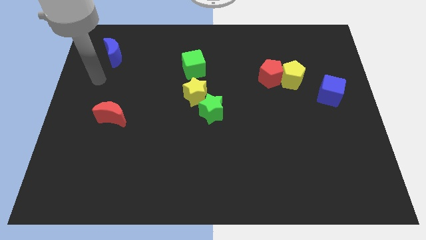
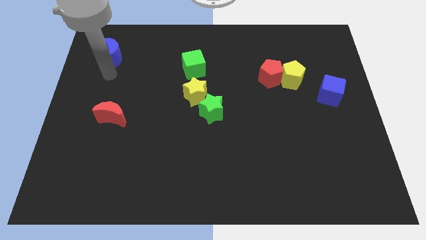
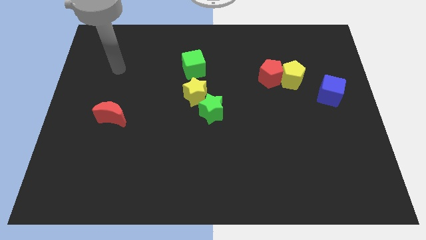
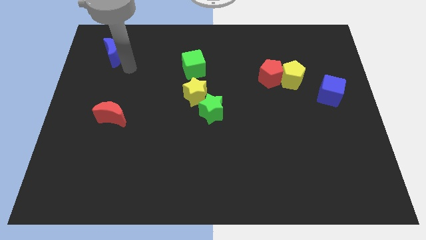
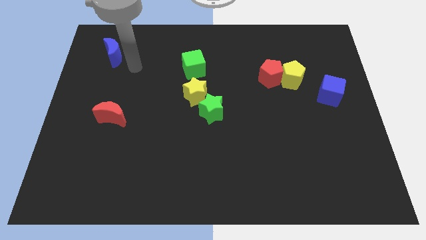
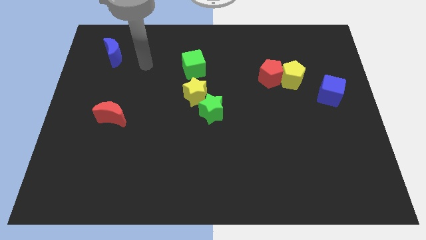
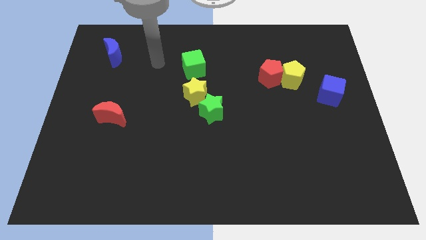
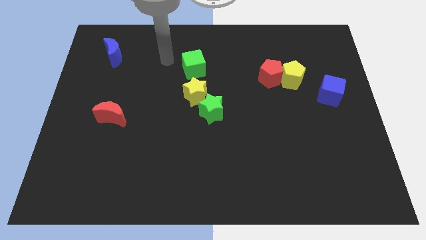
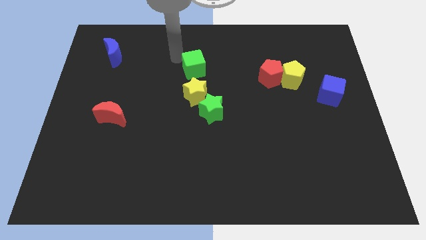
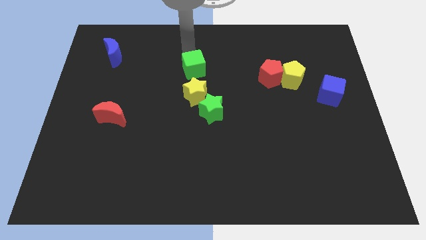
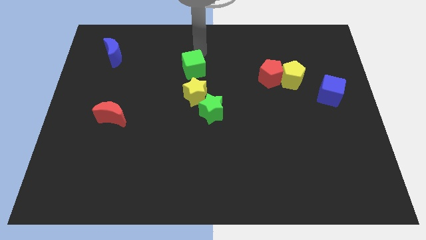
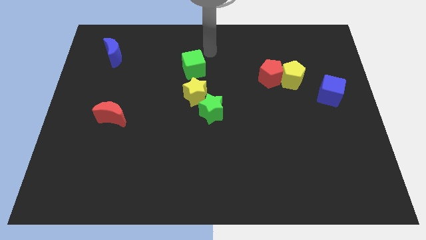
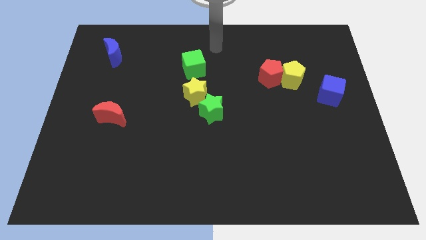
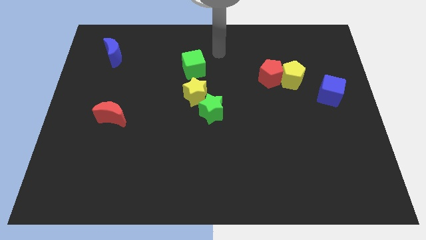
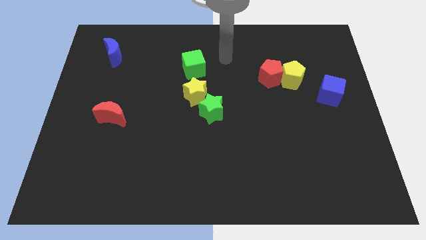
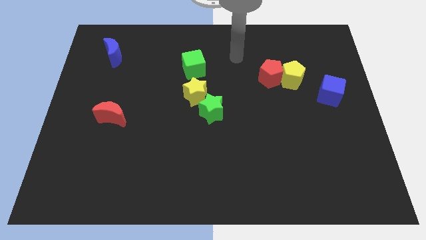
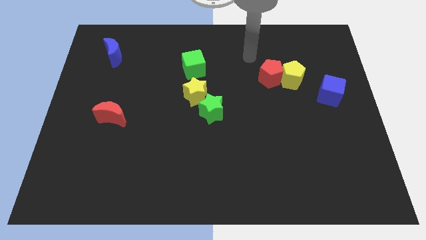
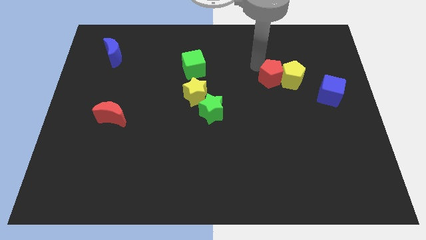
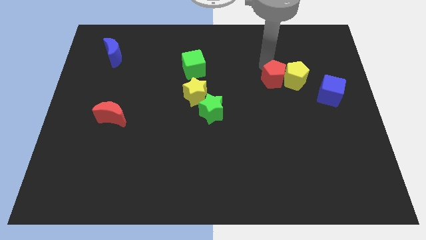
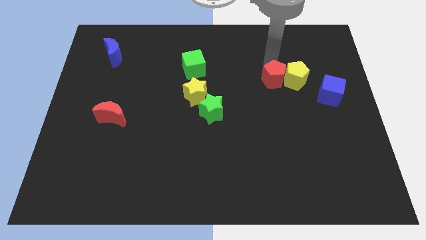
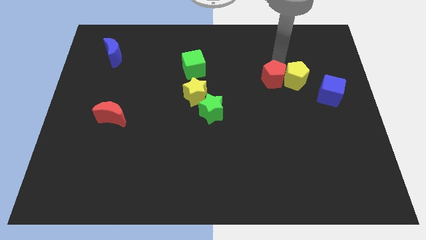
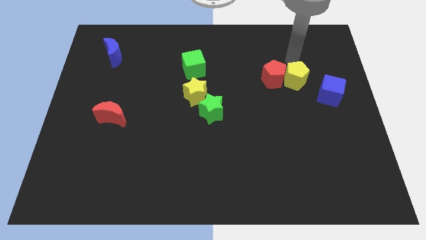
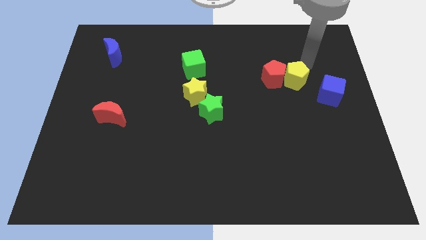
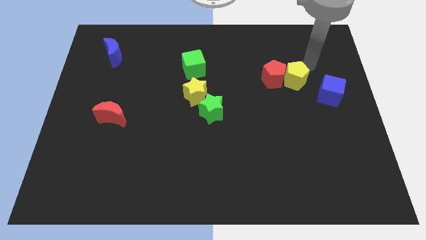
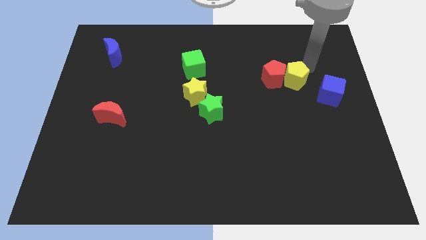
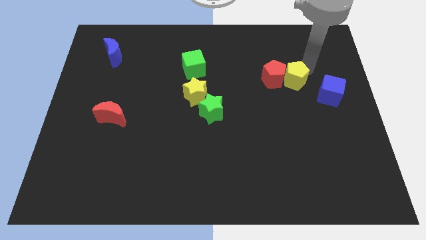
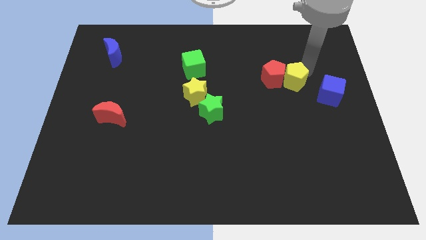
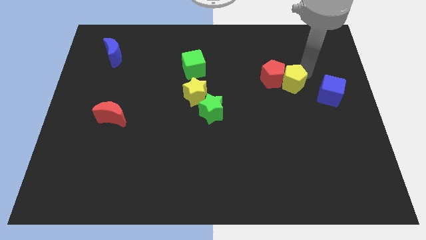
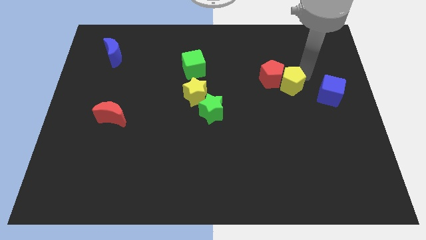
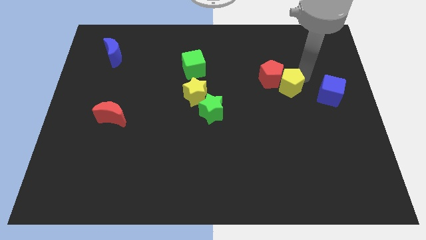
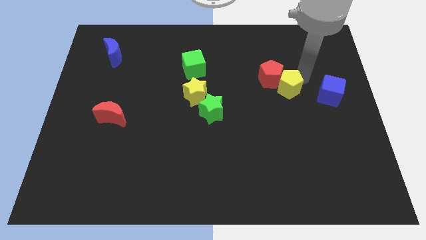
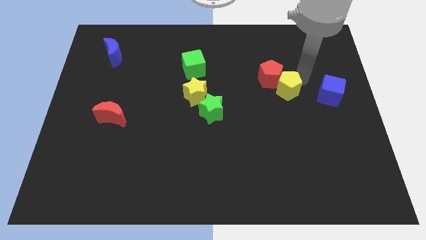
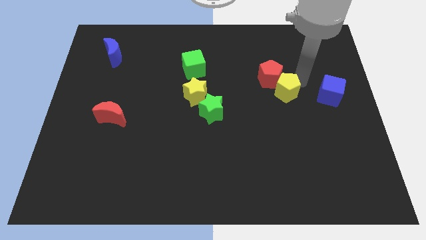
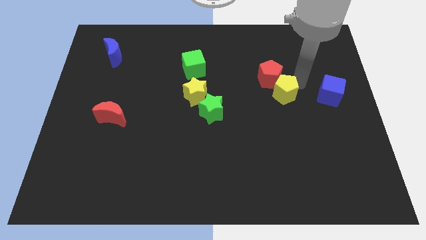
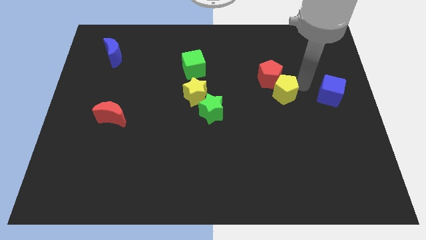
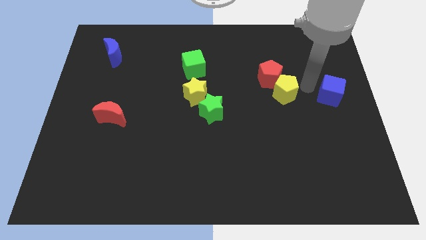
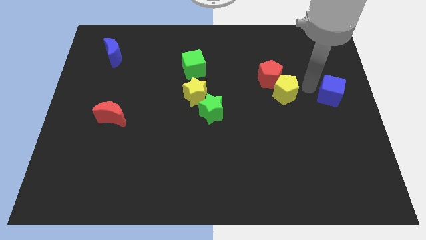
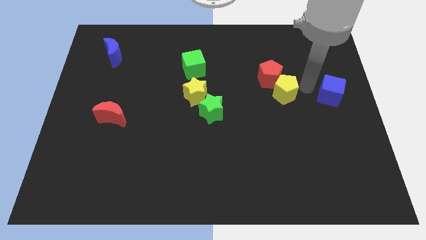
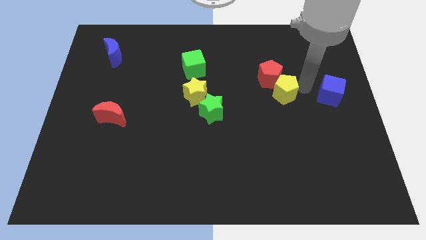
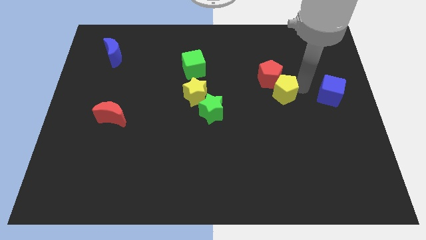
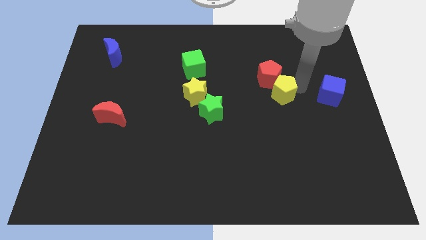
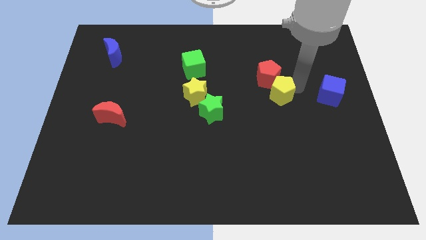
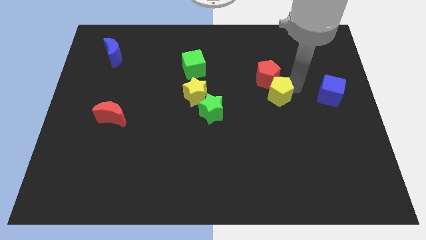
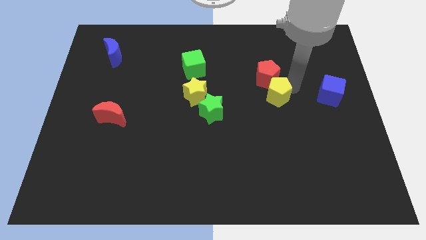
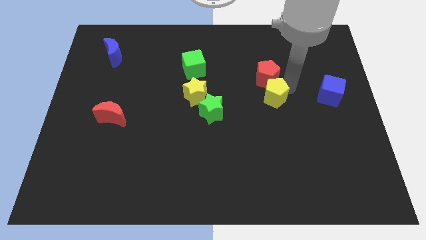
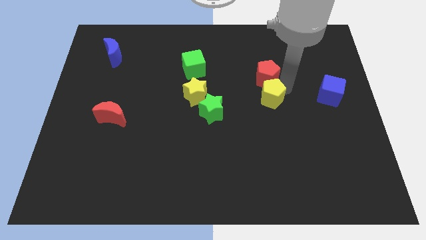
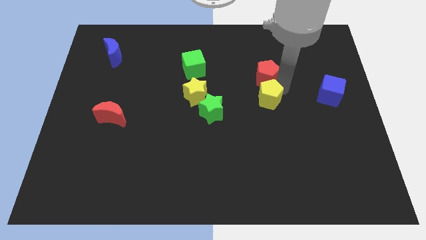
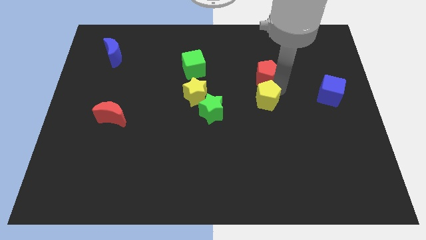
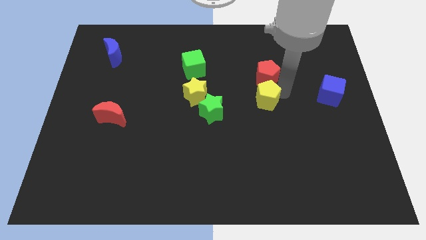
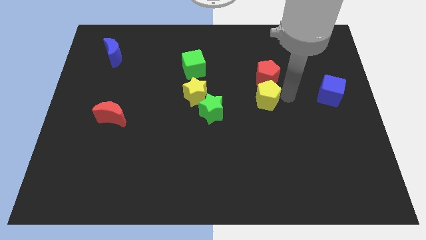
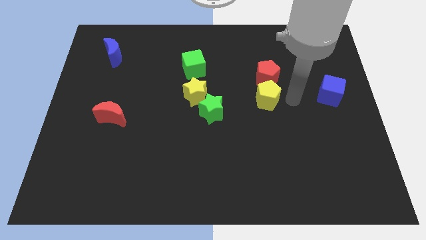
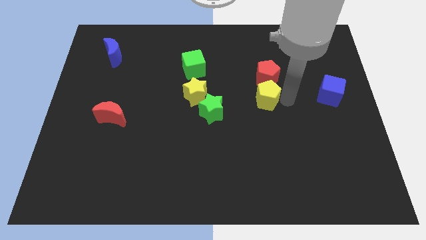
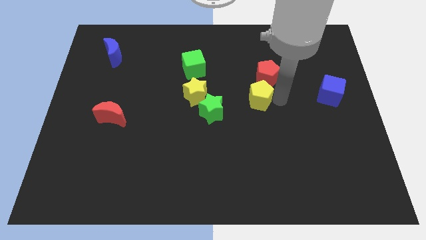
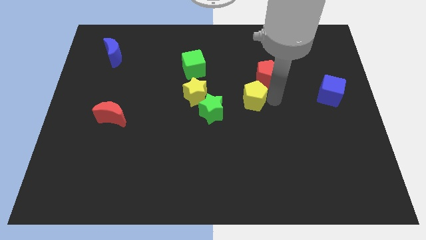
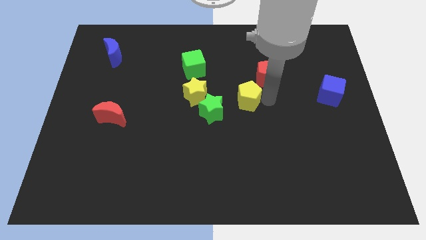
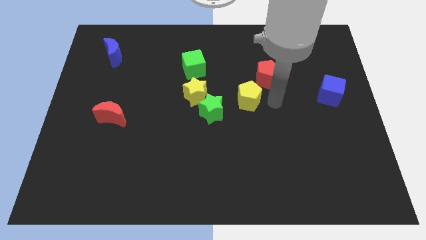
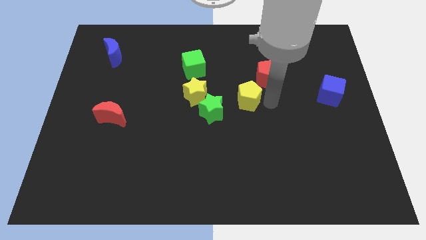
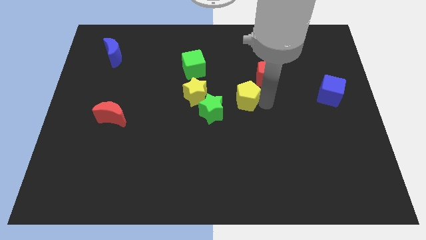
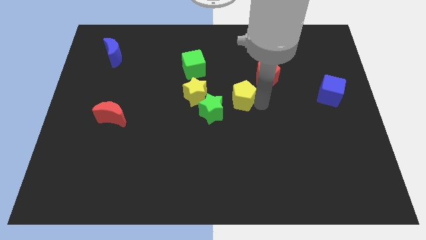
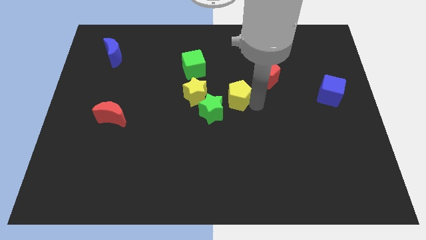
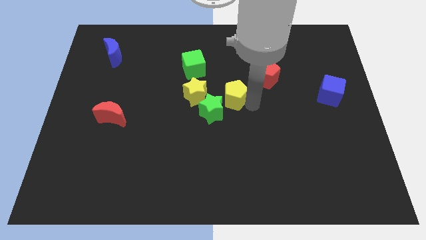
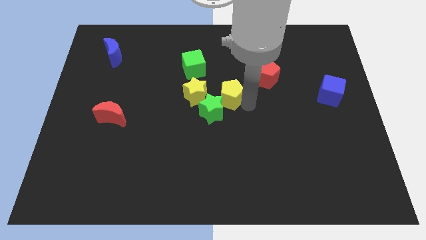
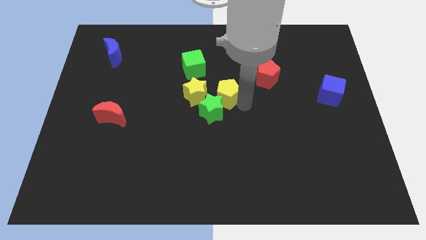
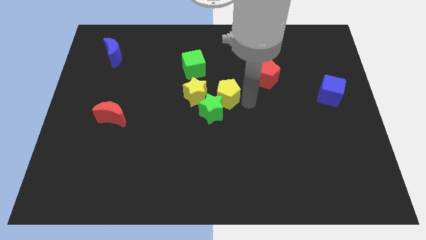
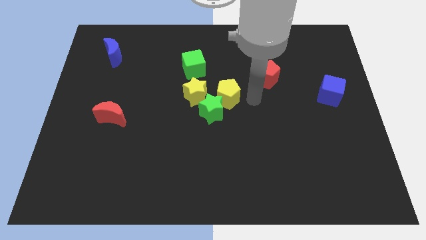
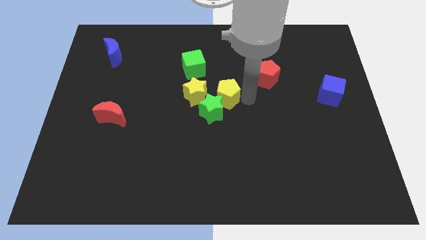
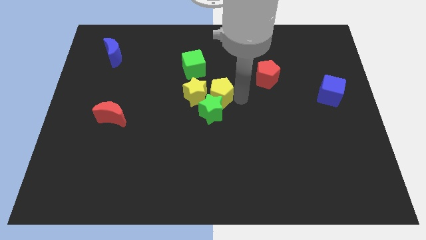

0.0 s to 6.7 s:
move the yellow pentagon close to the yellow star
